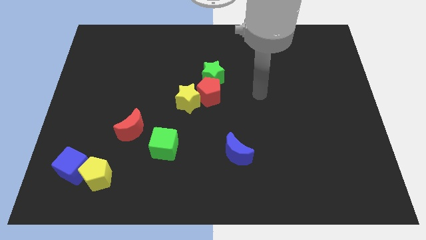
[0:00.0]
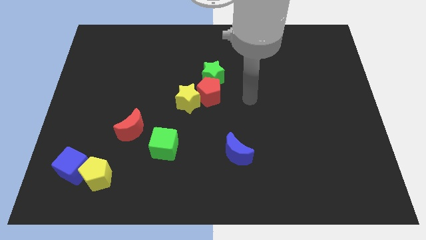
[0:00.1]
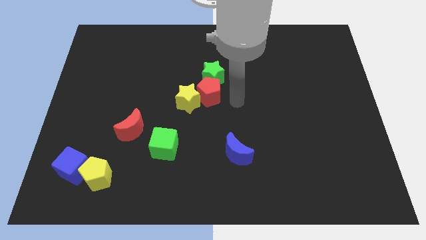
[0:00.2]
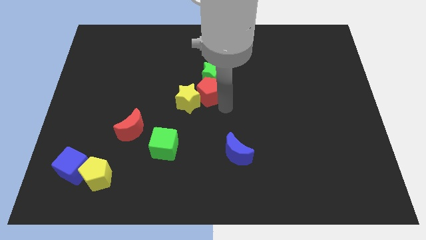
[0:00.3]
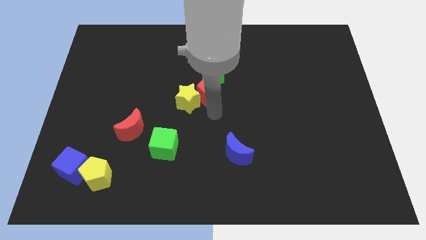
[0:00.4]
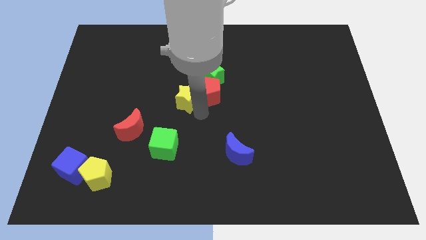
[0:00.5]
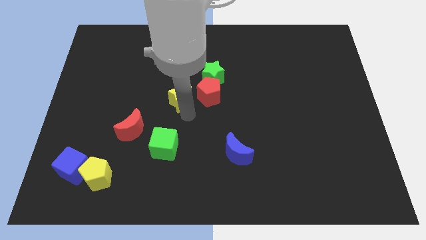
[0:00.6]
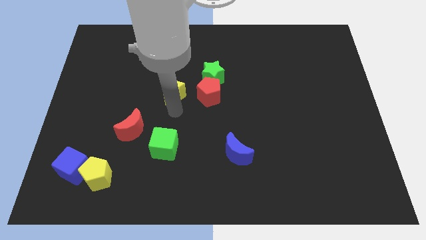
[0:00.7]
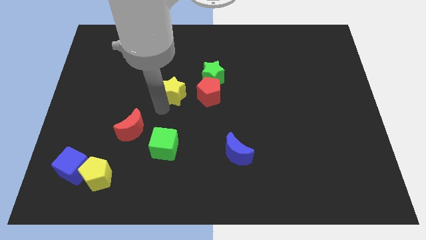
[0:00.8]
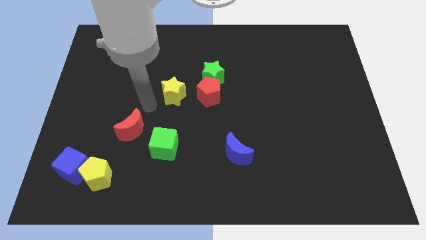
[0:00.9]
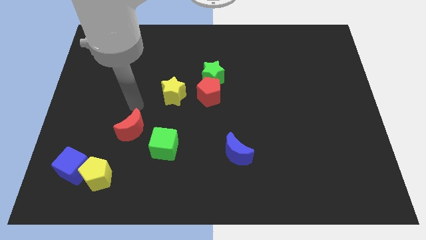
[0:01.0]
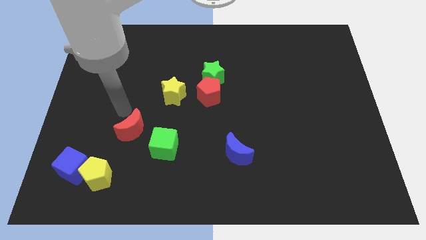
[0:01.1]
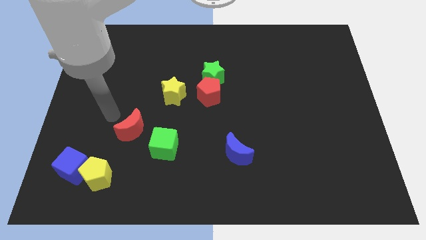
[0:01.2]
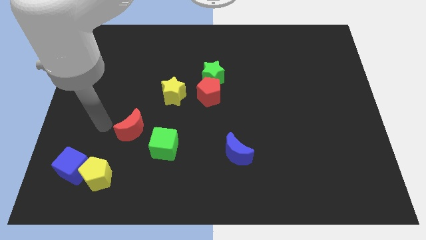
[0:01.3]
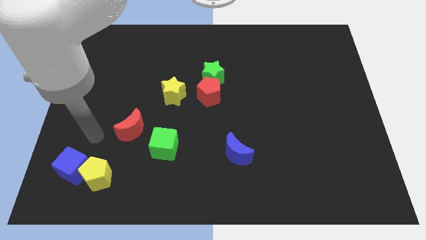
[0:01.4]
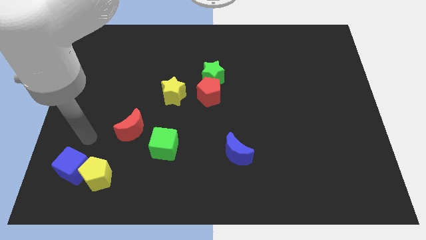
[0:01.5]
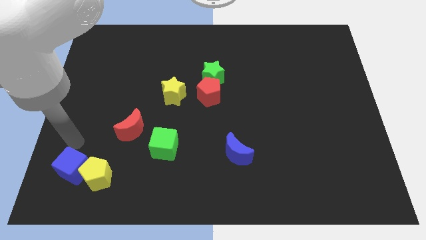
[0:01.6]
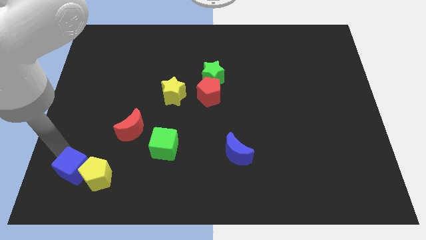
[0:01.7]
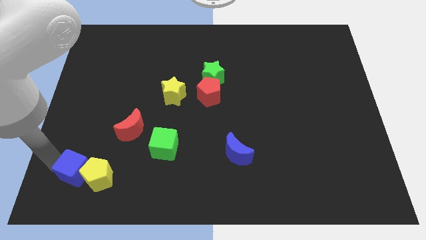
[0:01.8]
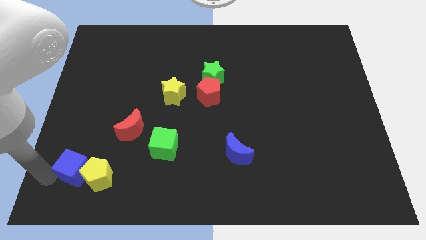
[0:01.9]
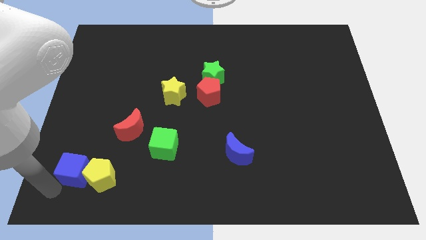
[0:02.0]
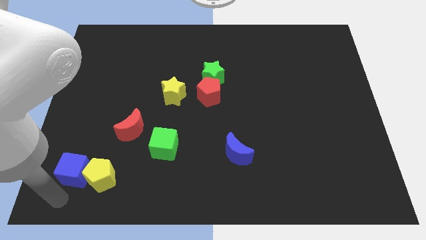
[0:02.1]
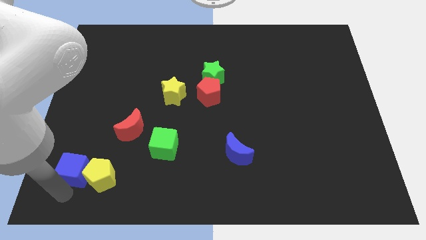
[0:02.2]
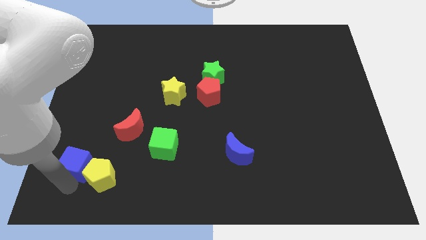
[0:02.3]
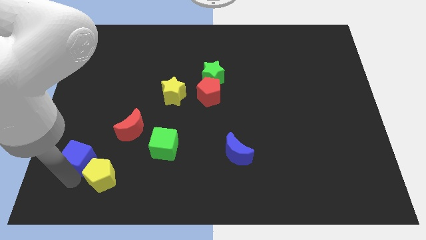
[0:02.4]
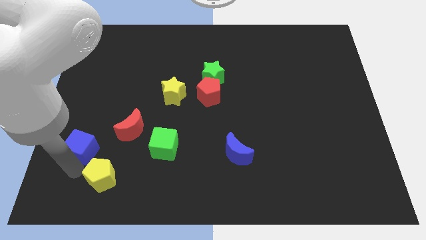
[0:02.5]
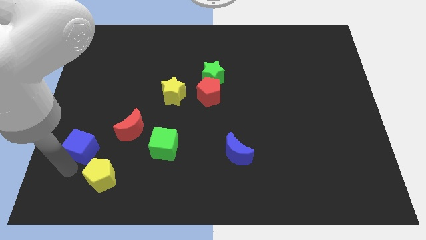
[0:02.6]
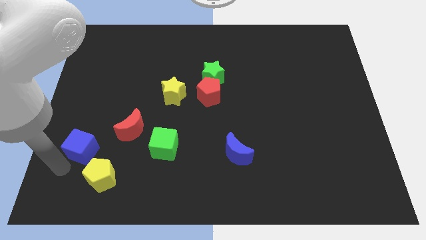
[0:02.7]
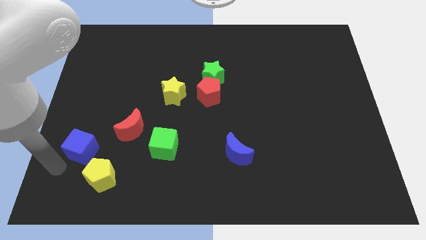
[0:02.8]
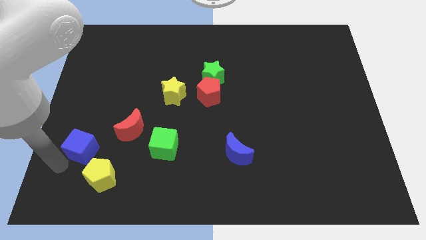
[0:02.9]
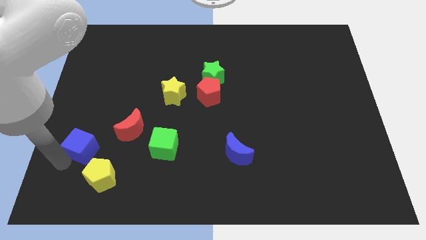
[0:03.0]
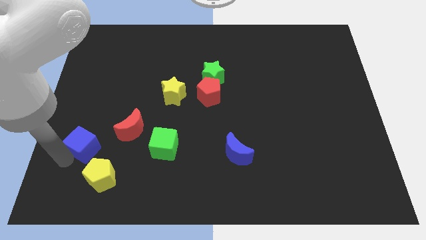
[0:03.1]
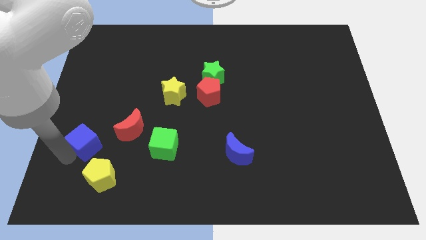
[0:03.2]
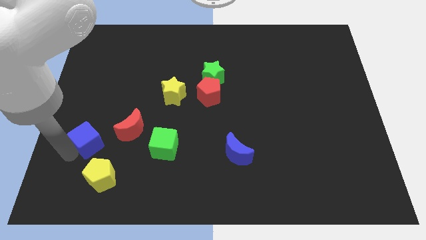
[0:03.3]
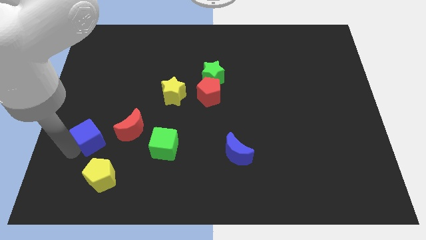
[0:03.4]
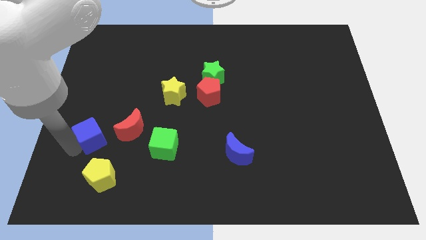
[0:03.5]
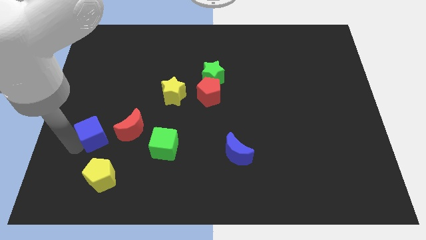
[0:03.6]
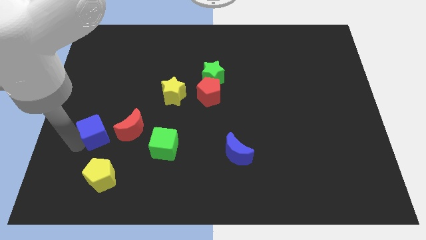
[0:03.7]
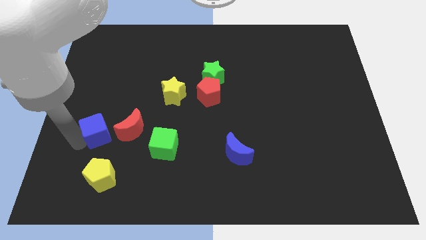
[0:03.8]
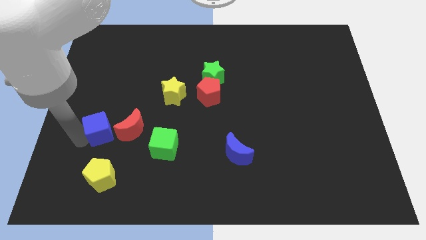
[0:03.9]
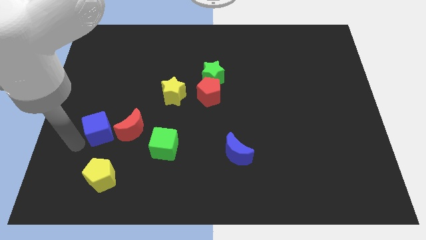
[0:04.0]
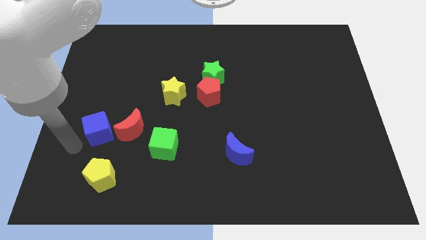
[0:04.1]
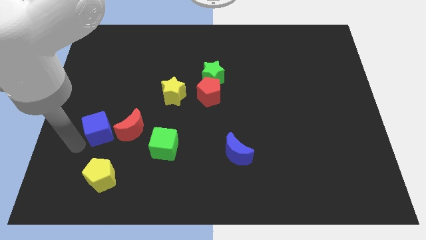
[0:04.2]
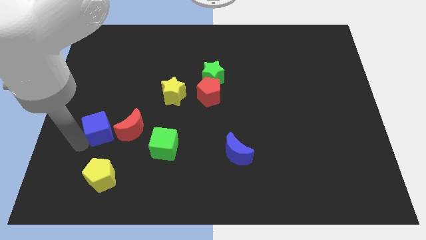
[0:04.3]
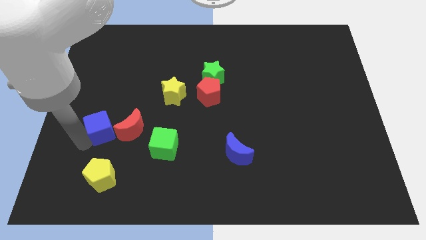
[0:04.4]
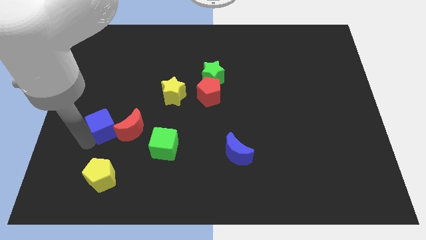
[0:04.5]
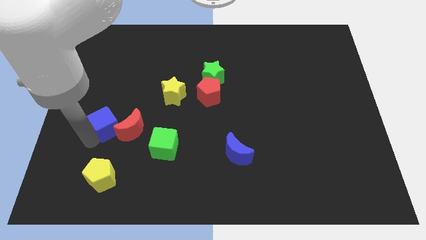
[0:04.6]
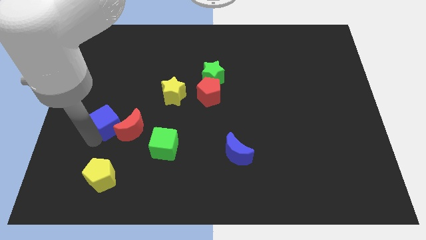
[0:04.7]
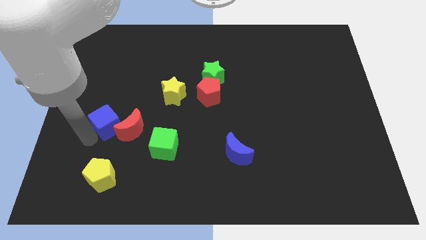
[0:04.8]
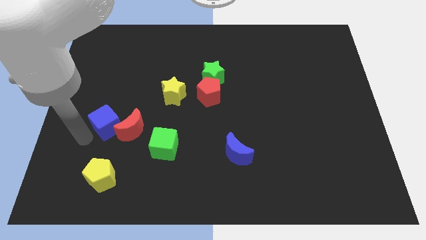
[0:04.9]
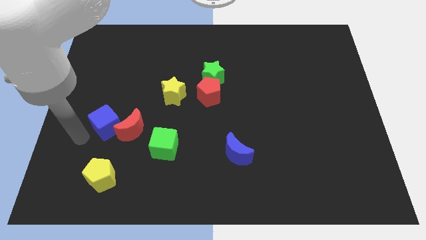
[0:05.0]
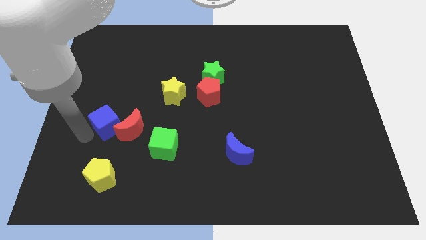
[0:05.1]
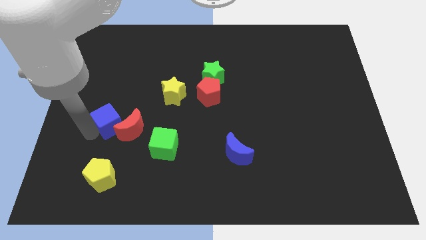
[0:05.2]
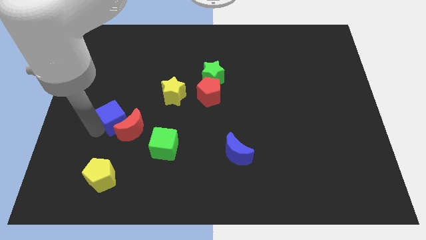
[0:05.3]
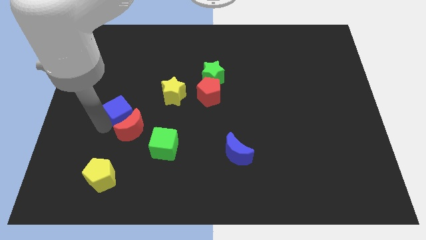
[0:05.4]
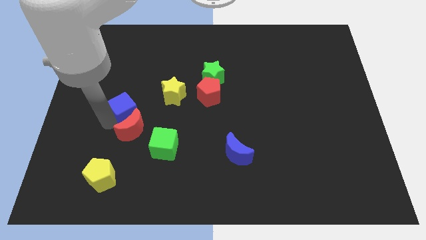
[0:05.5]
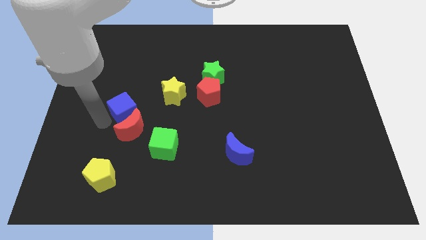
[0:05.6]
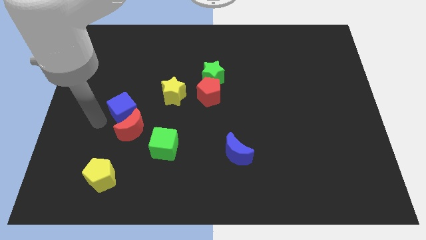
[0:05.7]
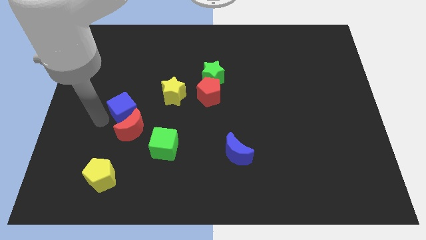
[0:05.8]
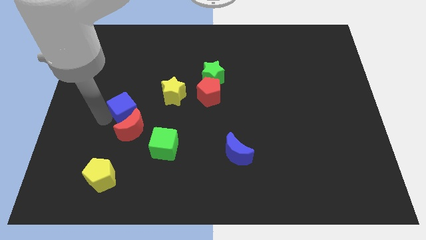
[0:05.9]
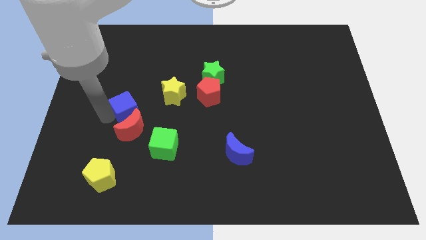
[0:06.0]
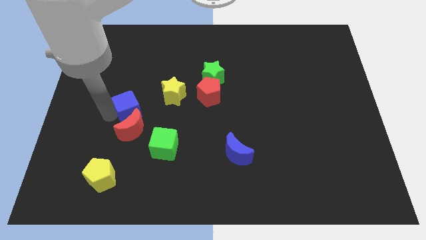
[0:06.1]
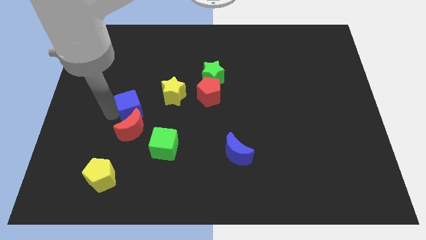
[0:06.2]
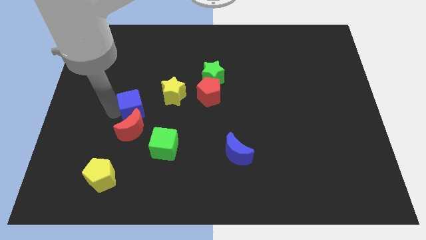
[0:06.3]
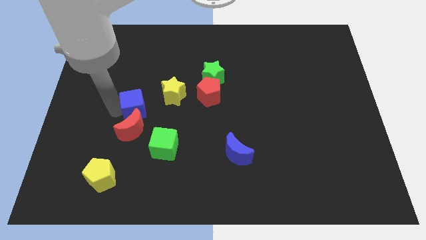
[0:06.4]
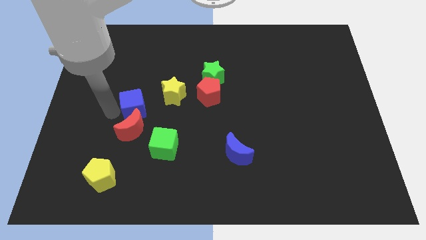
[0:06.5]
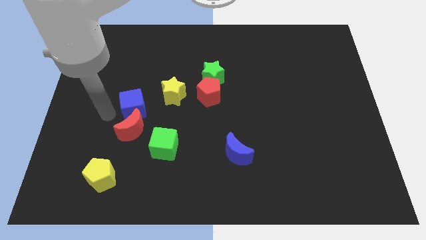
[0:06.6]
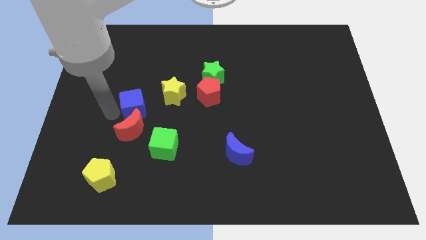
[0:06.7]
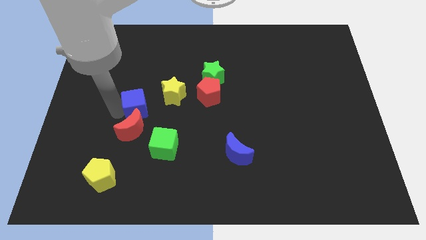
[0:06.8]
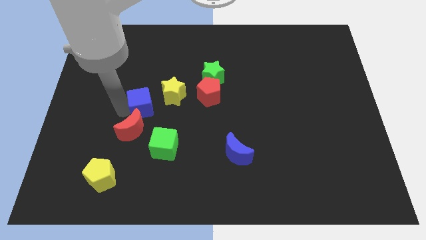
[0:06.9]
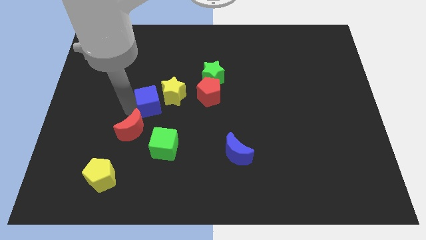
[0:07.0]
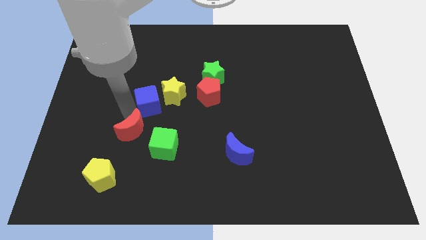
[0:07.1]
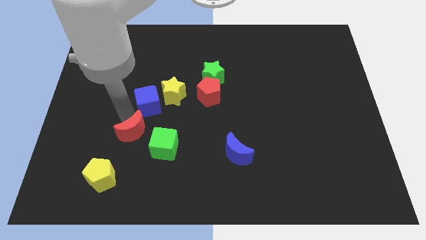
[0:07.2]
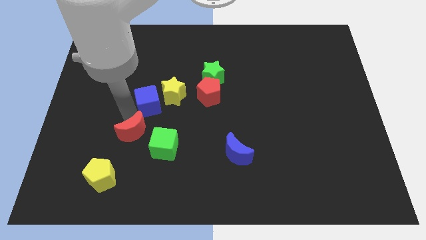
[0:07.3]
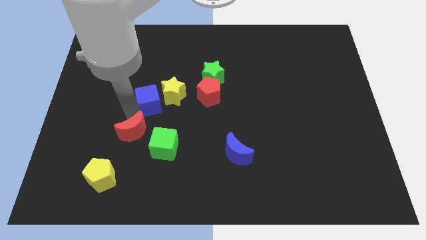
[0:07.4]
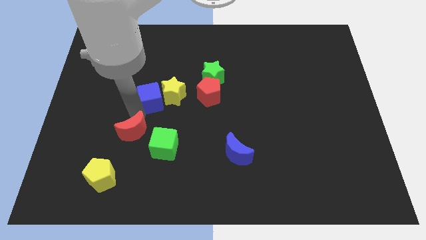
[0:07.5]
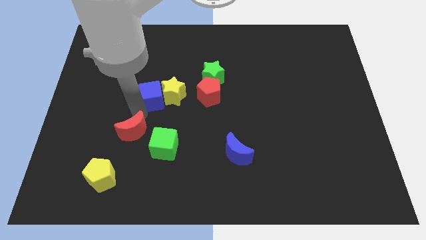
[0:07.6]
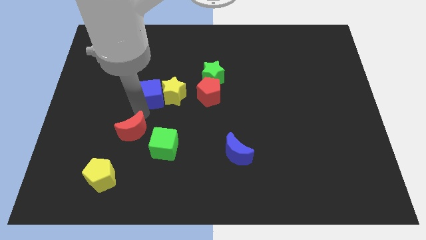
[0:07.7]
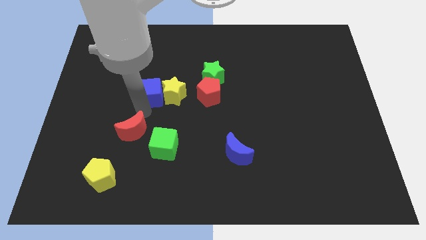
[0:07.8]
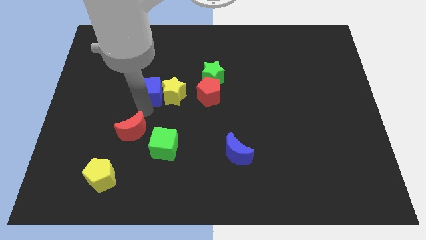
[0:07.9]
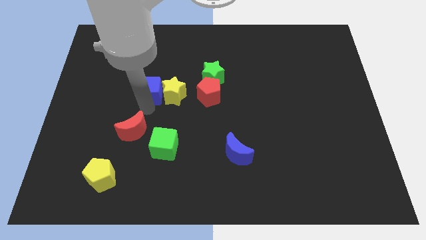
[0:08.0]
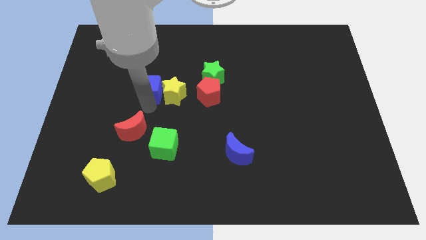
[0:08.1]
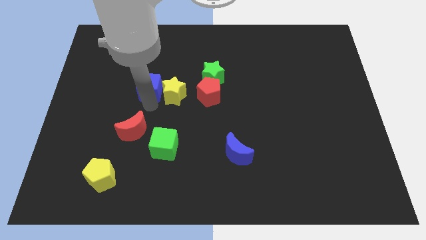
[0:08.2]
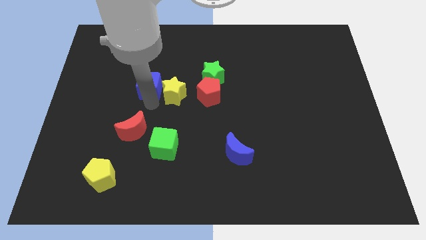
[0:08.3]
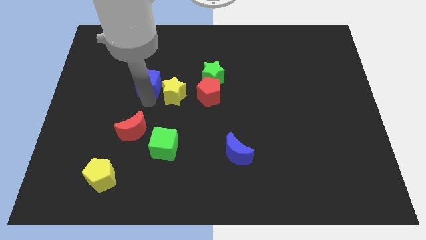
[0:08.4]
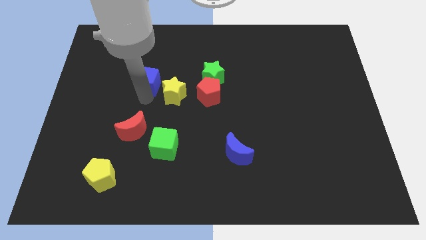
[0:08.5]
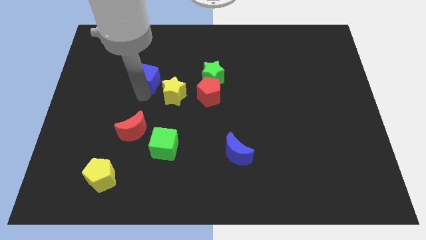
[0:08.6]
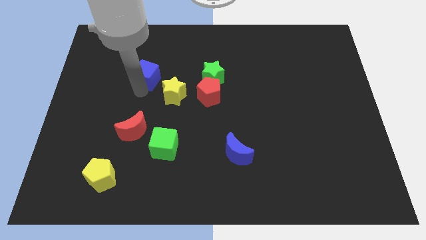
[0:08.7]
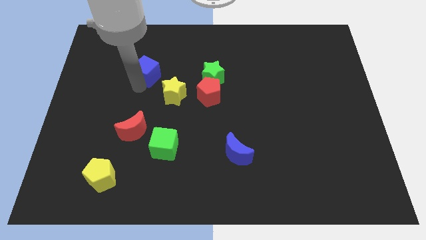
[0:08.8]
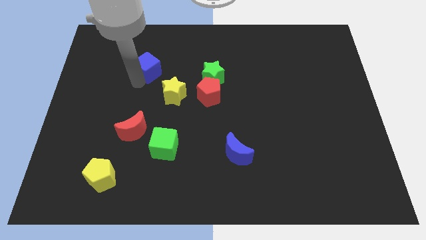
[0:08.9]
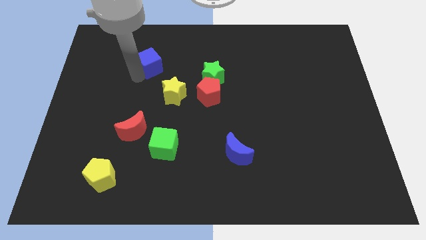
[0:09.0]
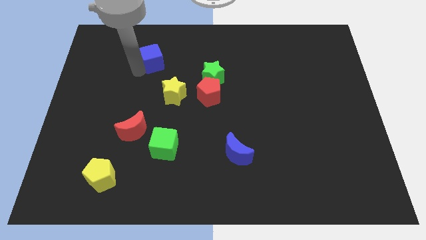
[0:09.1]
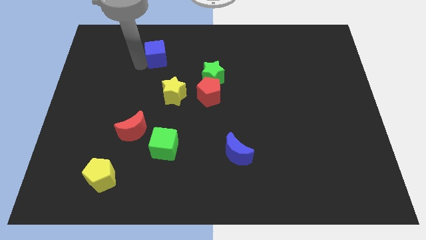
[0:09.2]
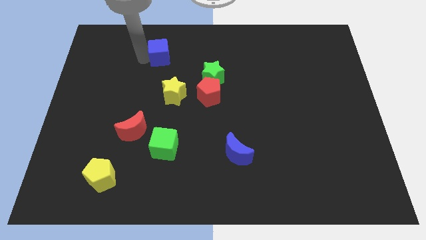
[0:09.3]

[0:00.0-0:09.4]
slide the blue cube above the yellow star
